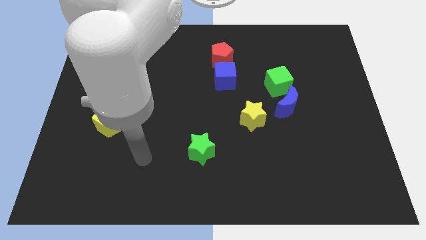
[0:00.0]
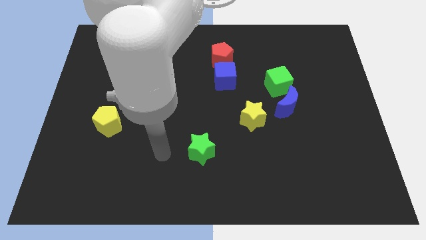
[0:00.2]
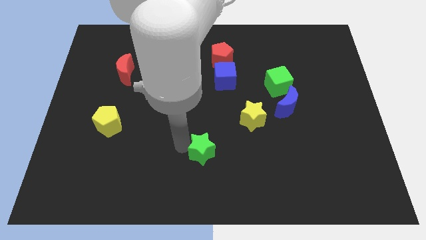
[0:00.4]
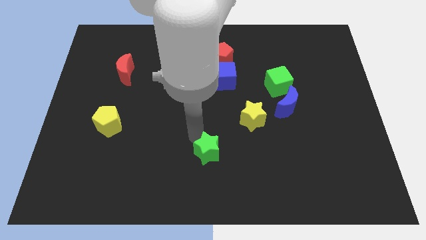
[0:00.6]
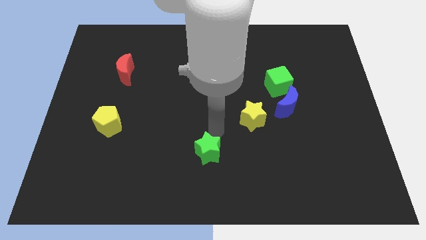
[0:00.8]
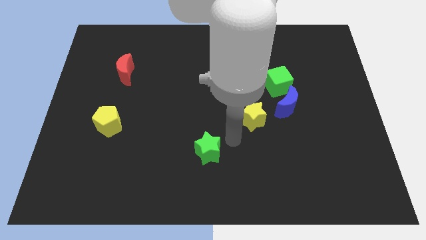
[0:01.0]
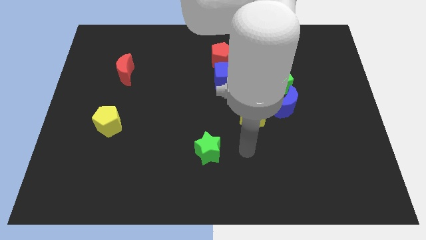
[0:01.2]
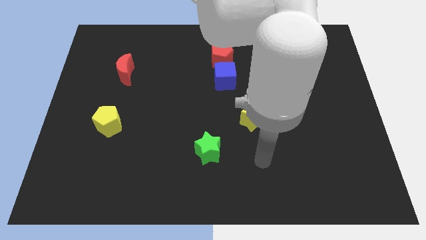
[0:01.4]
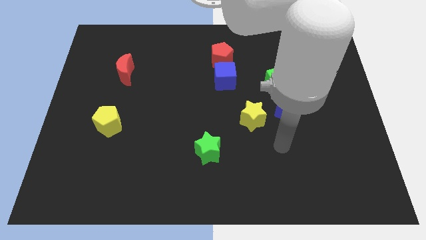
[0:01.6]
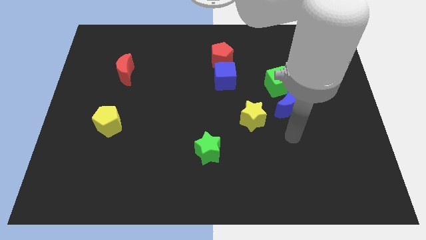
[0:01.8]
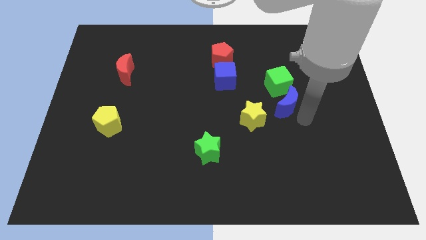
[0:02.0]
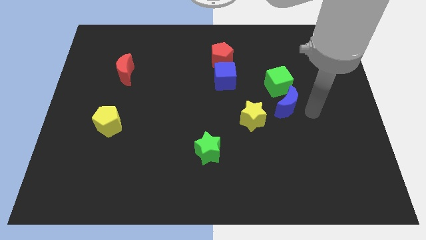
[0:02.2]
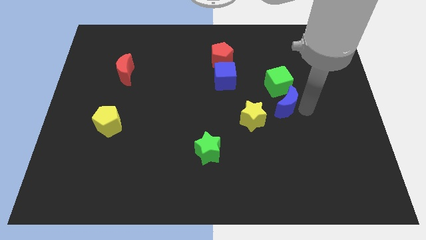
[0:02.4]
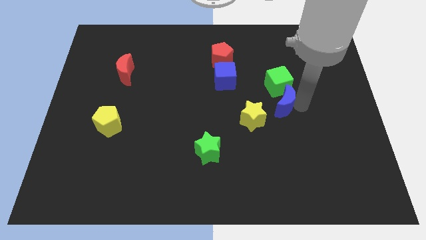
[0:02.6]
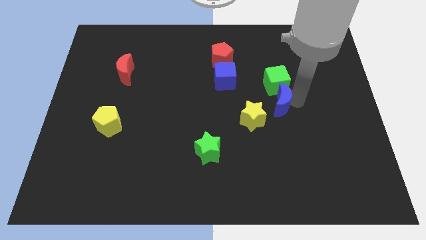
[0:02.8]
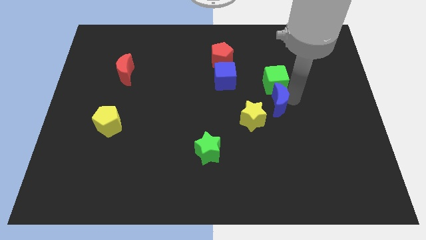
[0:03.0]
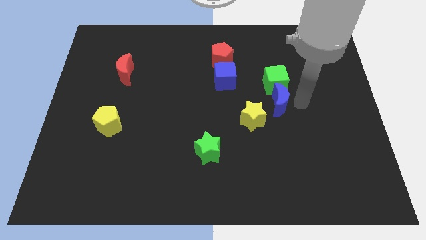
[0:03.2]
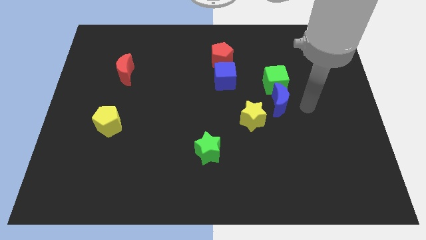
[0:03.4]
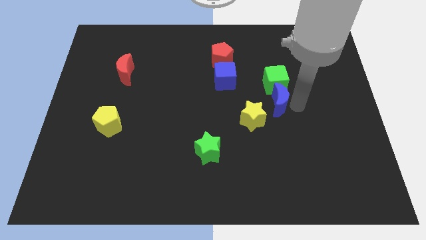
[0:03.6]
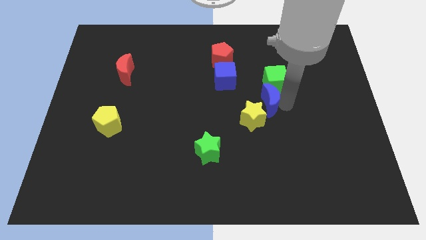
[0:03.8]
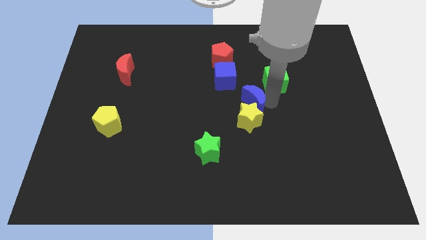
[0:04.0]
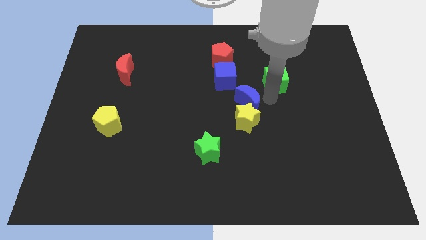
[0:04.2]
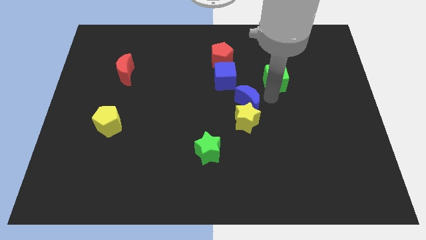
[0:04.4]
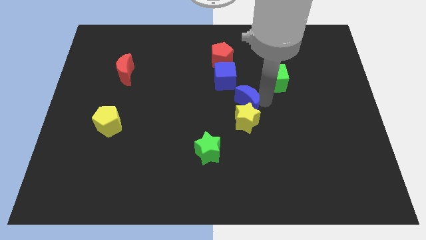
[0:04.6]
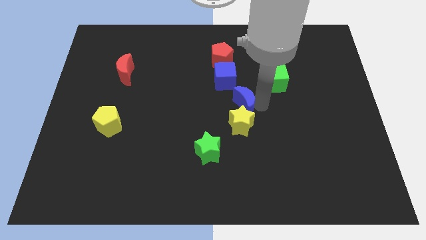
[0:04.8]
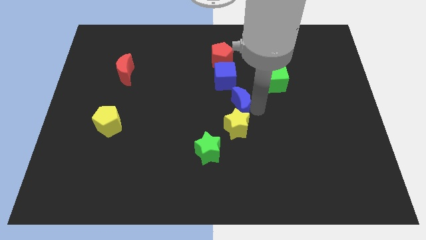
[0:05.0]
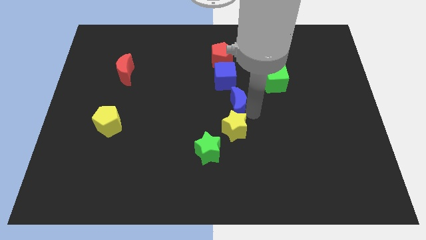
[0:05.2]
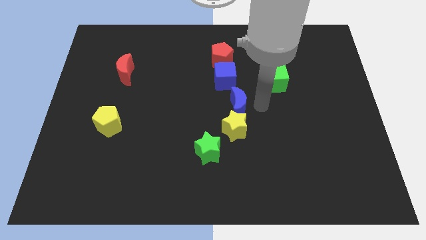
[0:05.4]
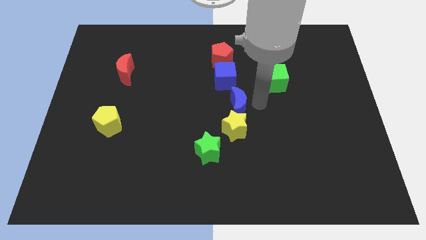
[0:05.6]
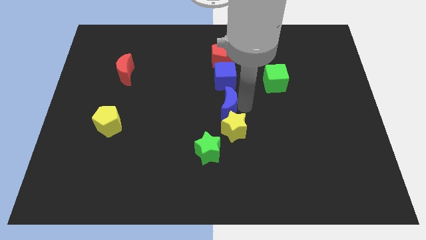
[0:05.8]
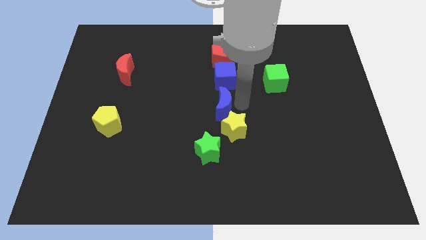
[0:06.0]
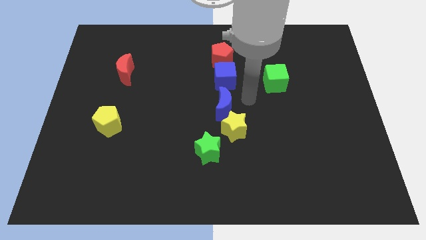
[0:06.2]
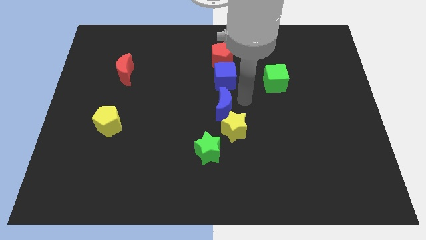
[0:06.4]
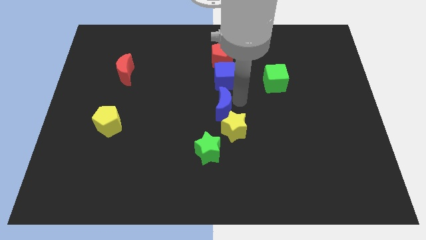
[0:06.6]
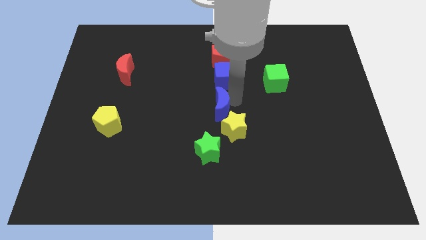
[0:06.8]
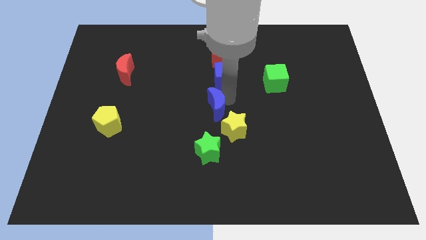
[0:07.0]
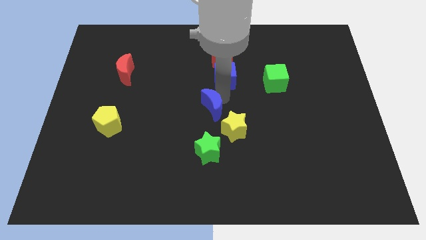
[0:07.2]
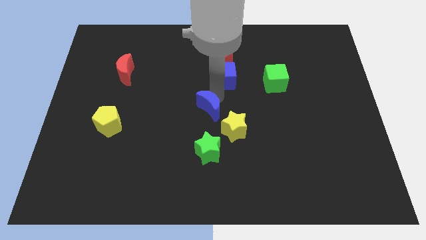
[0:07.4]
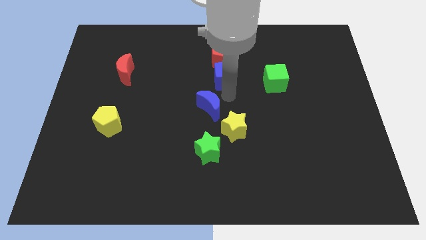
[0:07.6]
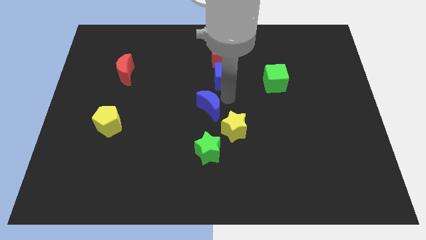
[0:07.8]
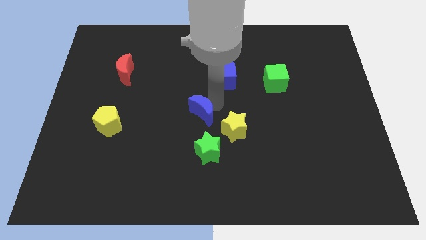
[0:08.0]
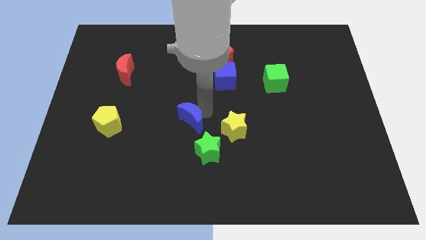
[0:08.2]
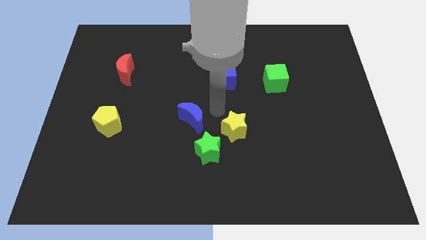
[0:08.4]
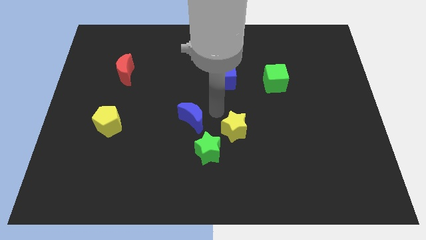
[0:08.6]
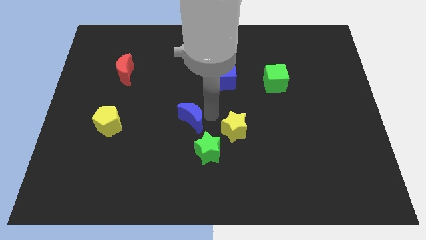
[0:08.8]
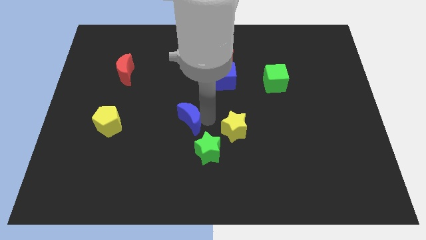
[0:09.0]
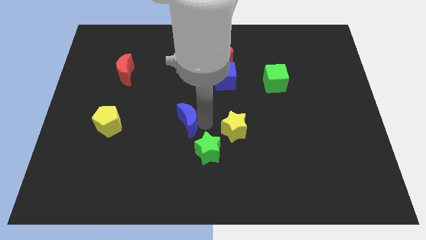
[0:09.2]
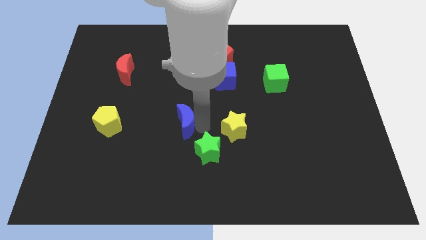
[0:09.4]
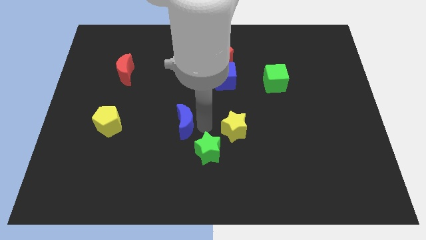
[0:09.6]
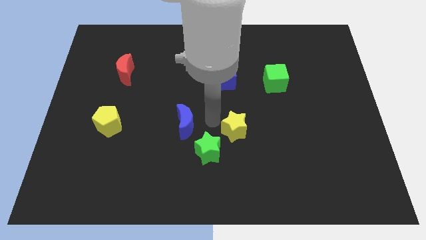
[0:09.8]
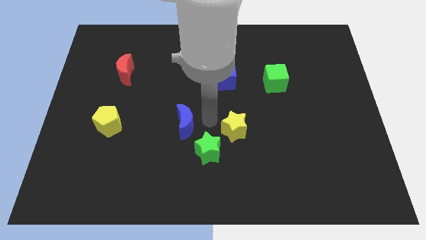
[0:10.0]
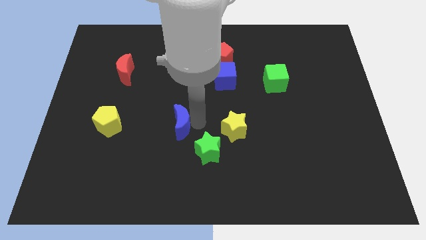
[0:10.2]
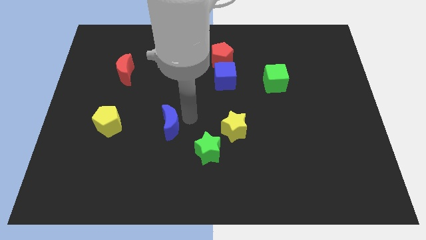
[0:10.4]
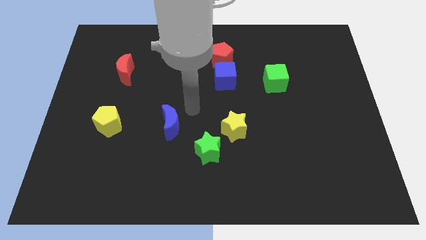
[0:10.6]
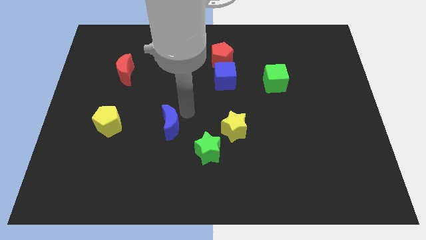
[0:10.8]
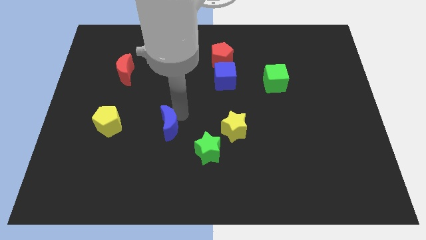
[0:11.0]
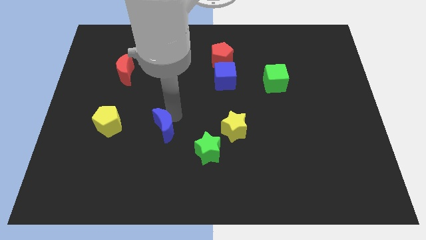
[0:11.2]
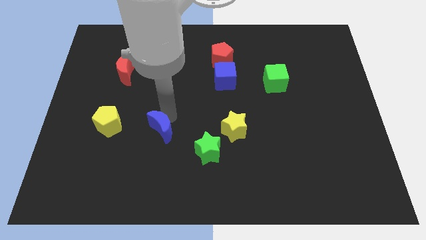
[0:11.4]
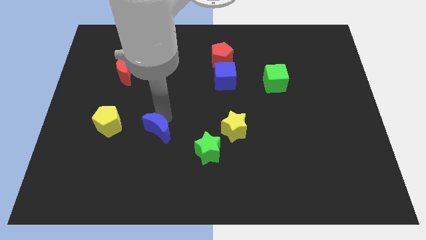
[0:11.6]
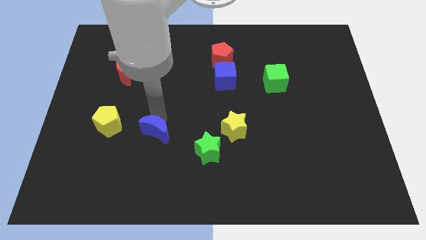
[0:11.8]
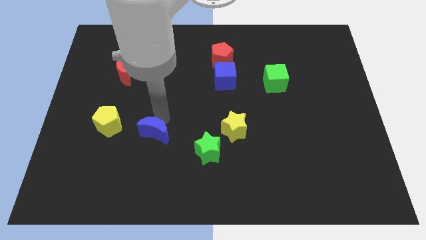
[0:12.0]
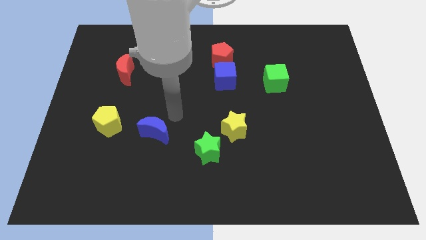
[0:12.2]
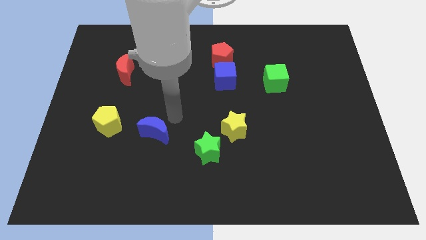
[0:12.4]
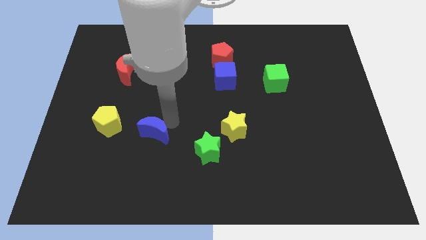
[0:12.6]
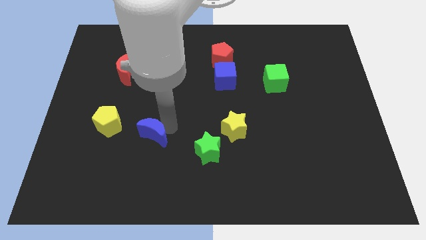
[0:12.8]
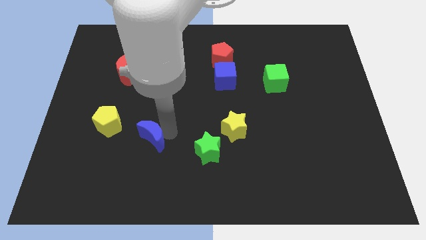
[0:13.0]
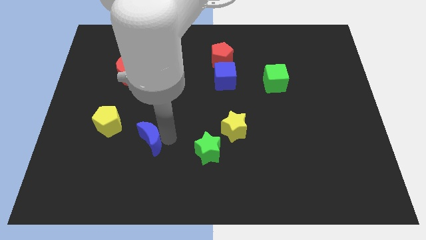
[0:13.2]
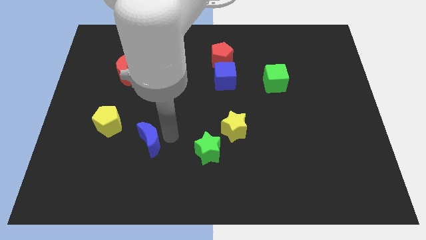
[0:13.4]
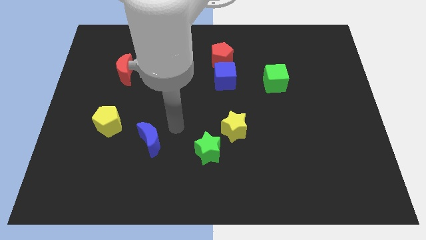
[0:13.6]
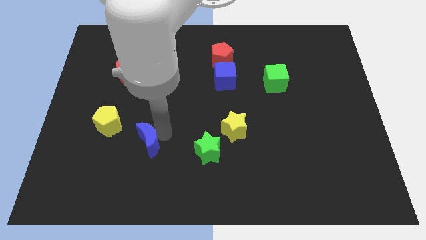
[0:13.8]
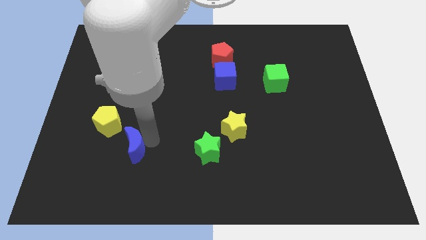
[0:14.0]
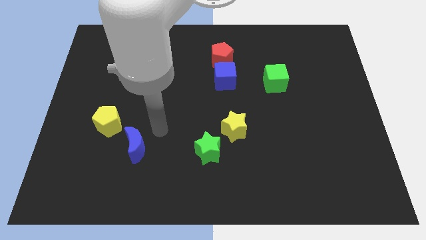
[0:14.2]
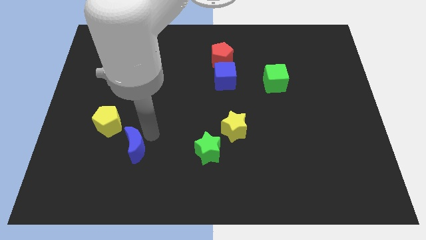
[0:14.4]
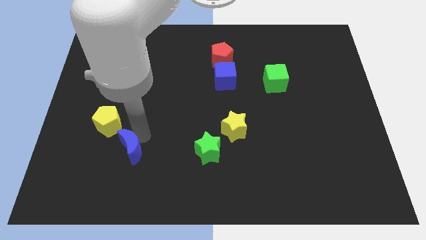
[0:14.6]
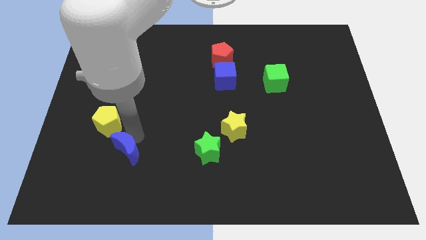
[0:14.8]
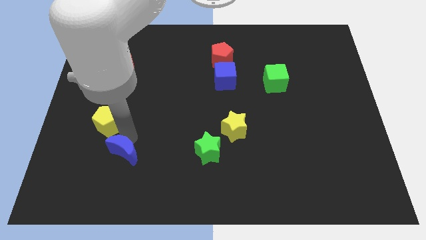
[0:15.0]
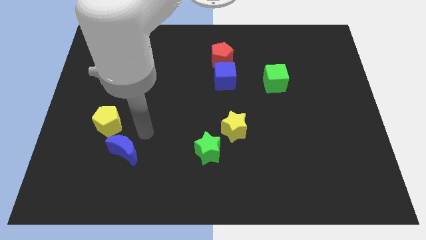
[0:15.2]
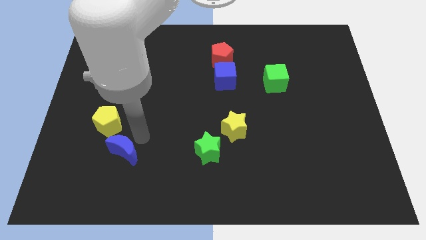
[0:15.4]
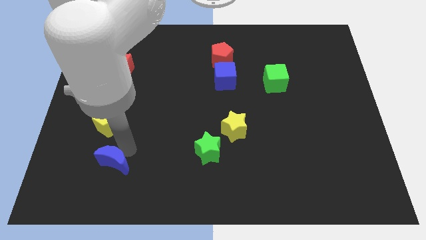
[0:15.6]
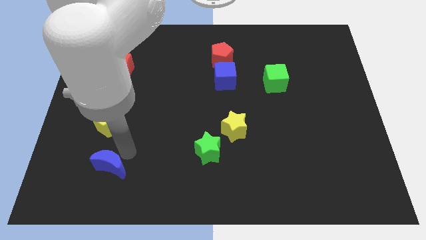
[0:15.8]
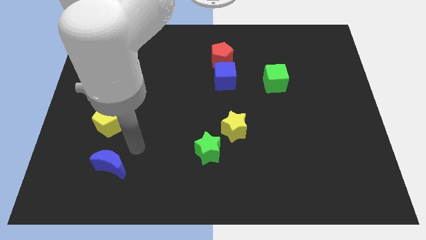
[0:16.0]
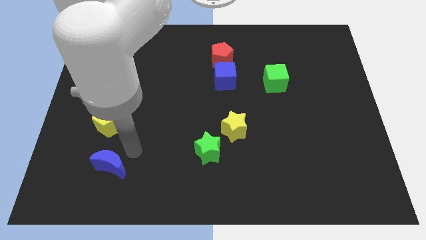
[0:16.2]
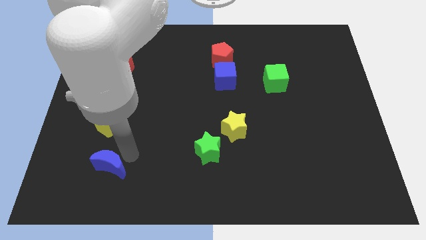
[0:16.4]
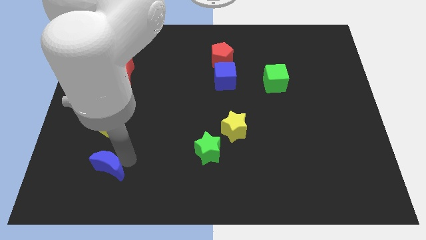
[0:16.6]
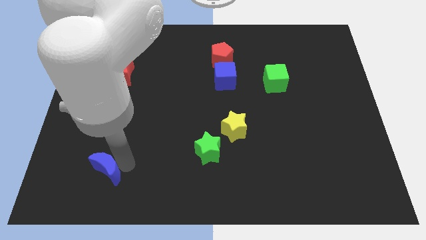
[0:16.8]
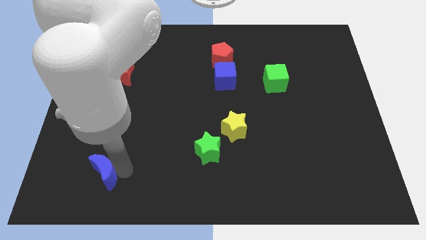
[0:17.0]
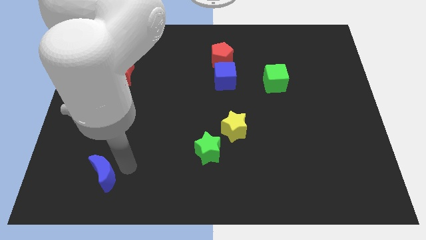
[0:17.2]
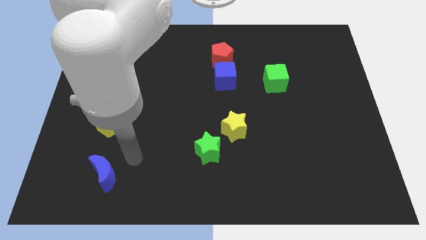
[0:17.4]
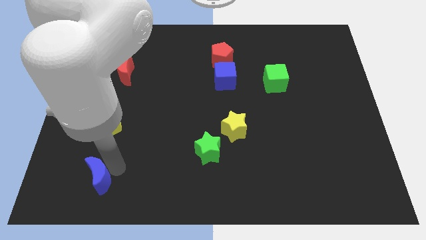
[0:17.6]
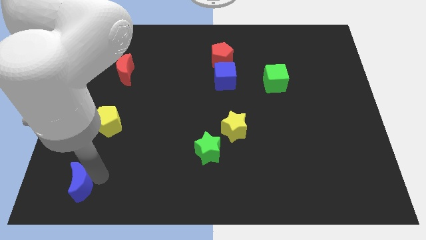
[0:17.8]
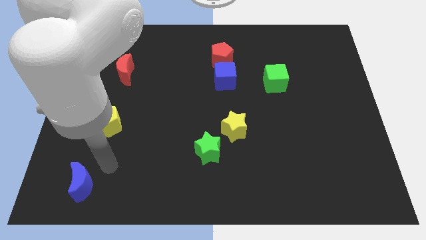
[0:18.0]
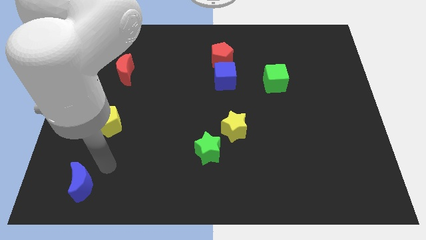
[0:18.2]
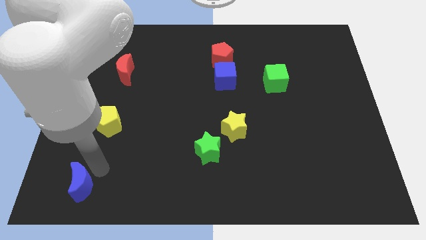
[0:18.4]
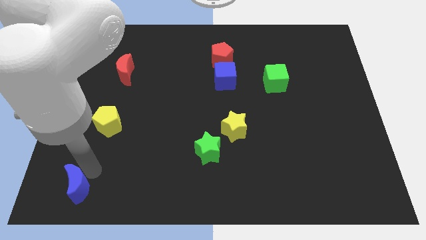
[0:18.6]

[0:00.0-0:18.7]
put the blue moon to the bottom left
